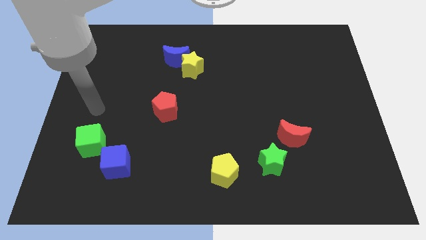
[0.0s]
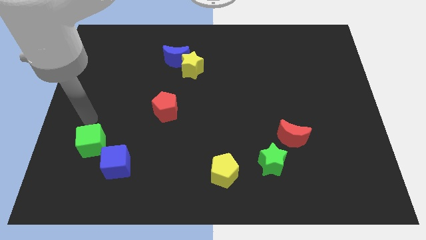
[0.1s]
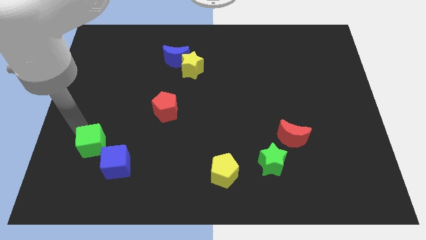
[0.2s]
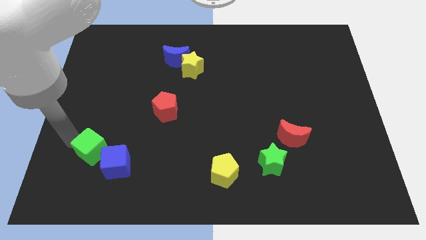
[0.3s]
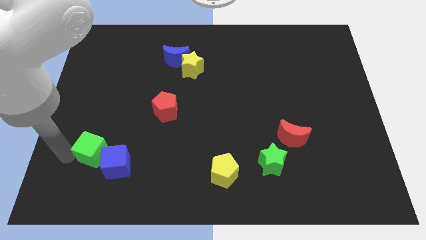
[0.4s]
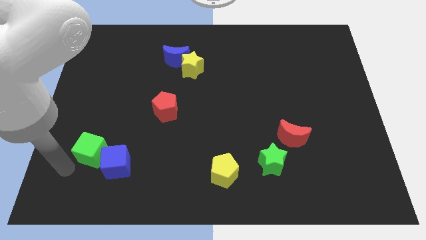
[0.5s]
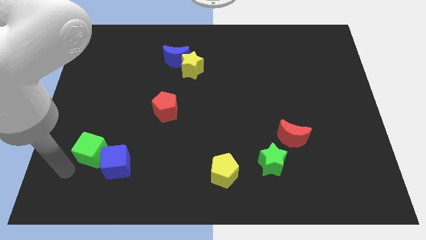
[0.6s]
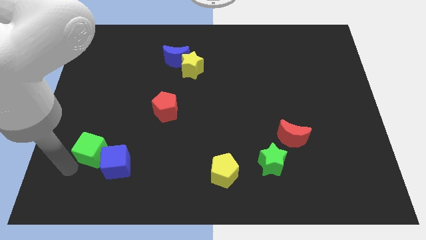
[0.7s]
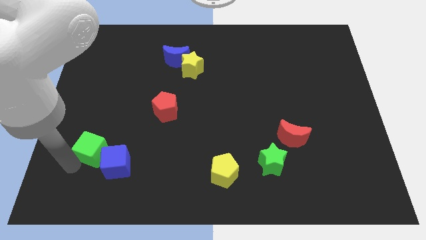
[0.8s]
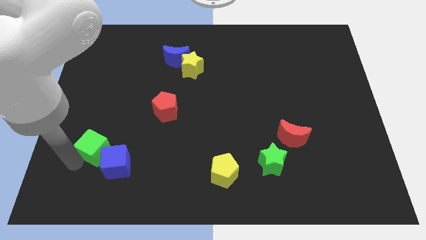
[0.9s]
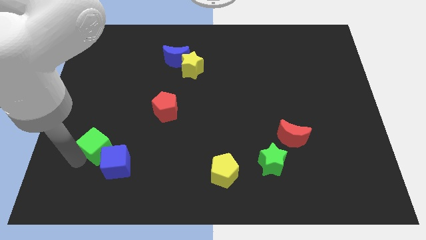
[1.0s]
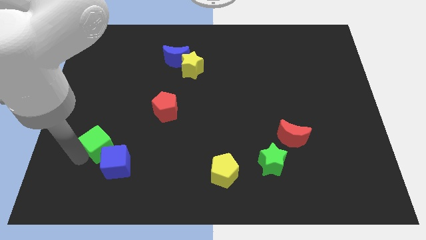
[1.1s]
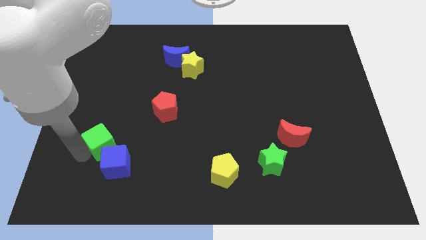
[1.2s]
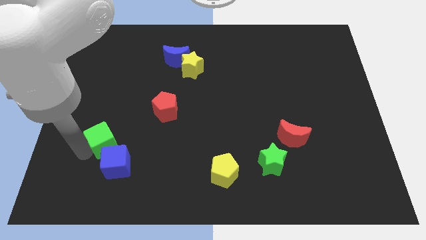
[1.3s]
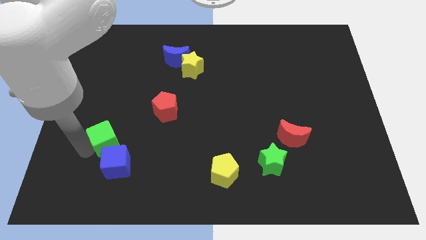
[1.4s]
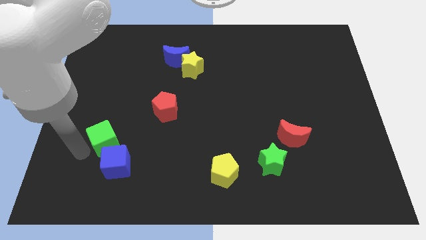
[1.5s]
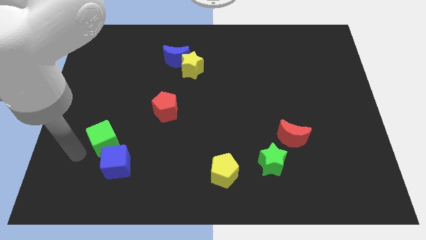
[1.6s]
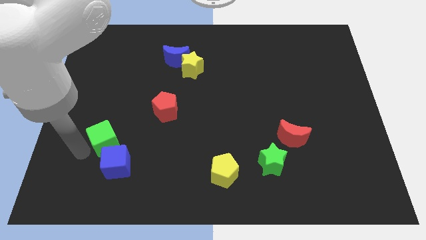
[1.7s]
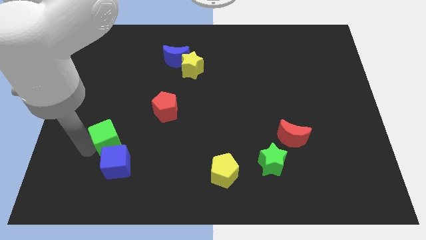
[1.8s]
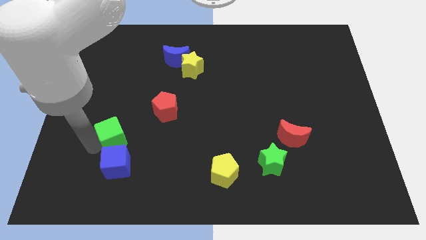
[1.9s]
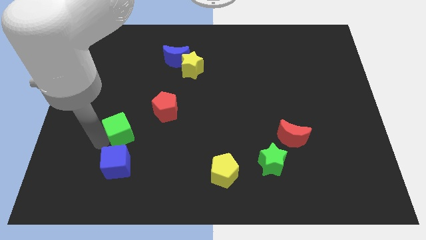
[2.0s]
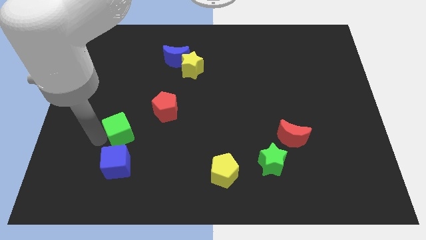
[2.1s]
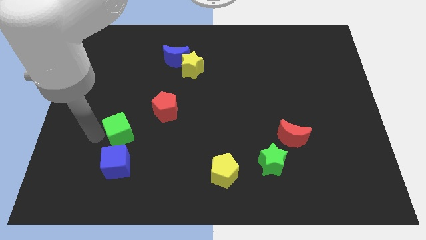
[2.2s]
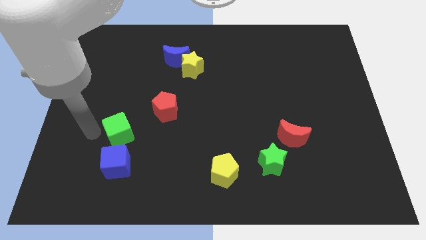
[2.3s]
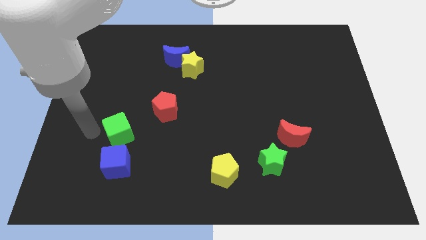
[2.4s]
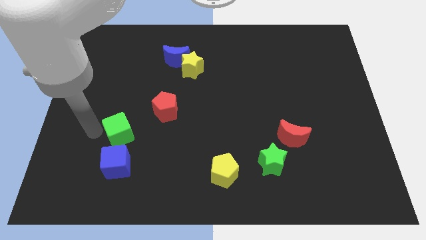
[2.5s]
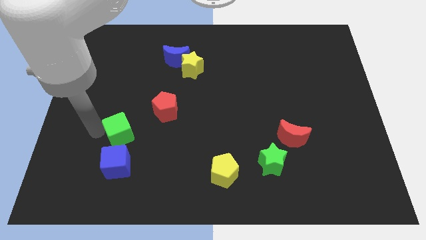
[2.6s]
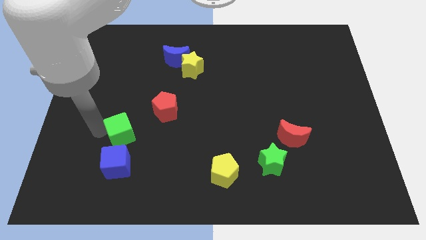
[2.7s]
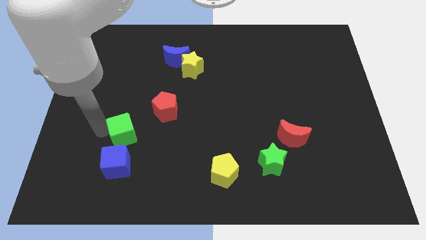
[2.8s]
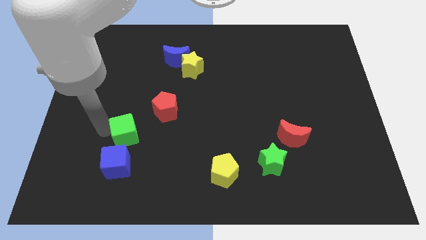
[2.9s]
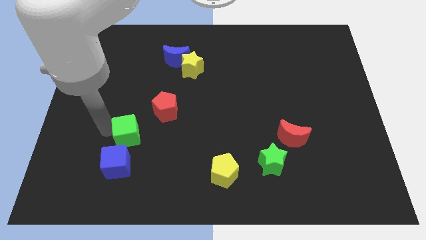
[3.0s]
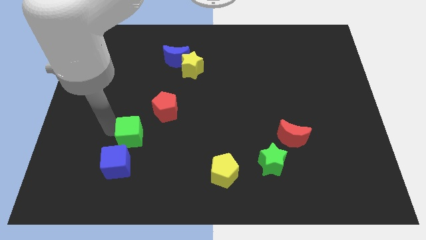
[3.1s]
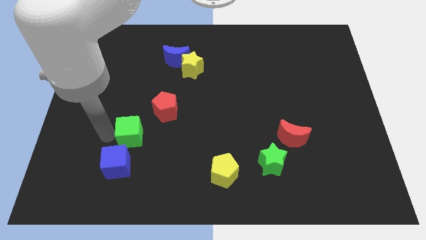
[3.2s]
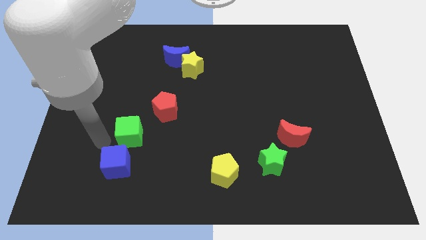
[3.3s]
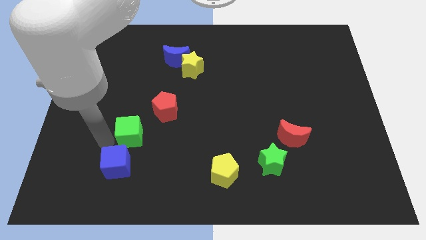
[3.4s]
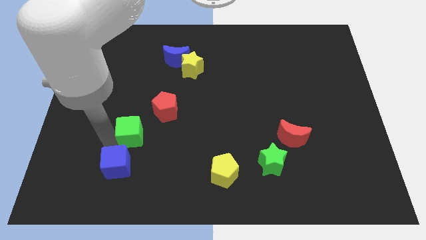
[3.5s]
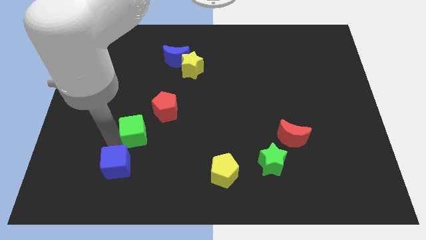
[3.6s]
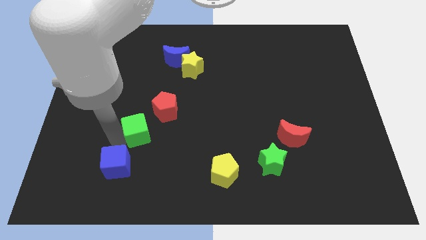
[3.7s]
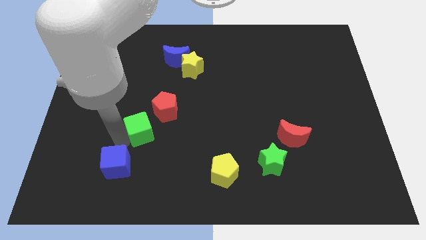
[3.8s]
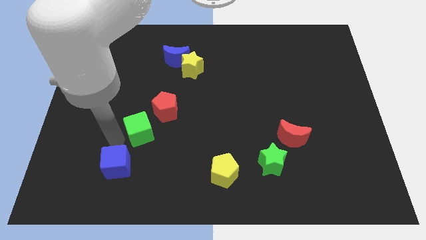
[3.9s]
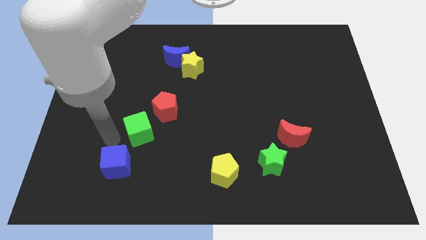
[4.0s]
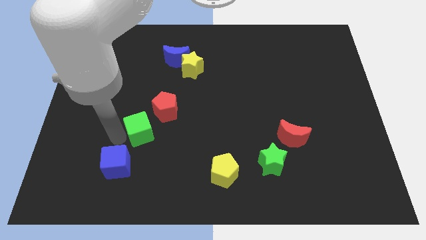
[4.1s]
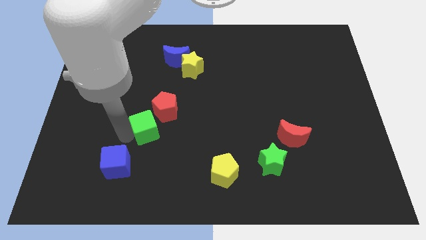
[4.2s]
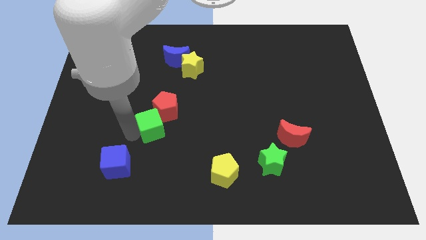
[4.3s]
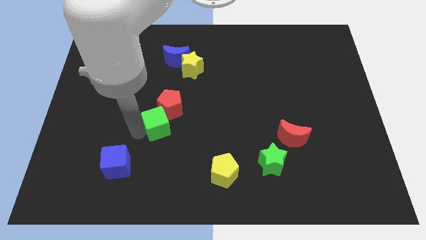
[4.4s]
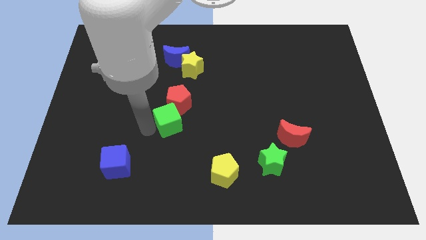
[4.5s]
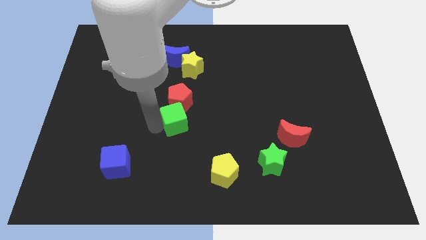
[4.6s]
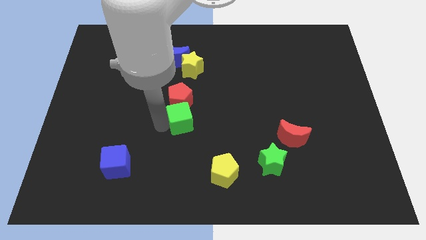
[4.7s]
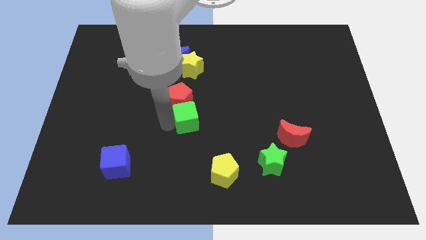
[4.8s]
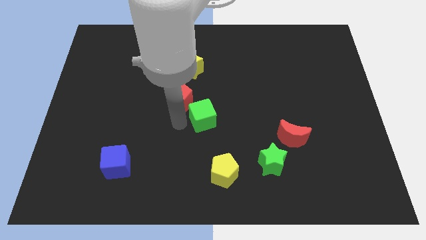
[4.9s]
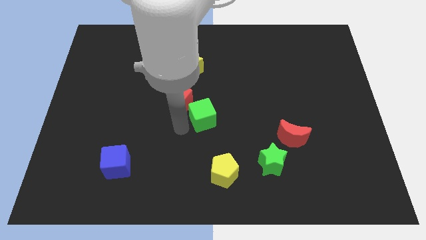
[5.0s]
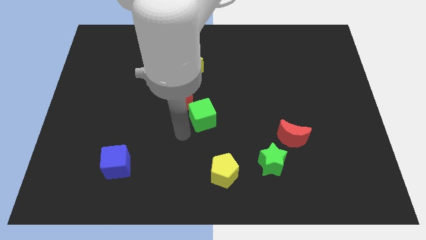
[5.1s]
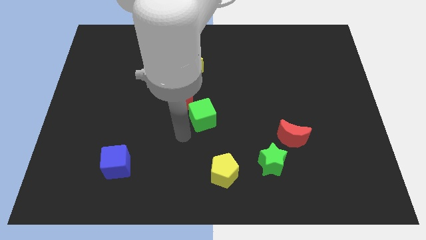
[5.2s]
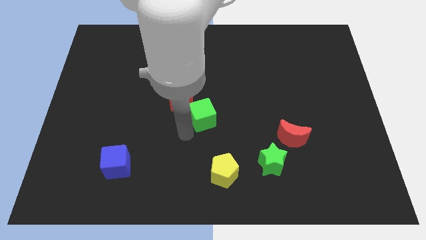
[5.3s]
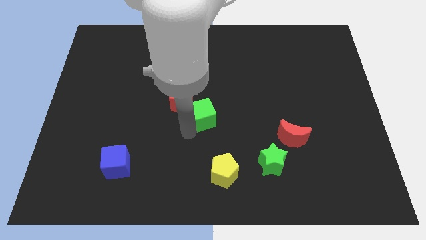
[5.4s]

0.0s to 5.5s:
move the green cube right of the red pentagon
